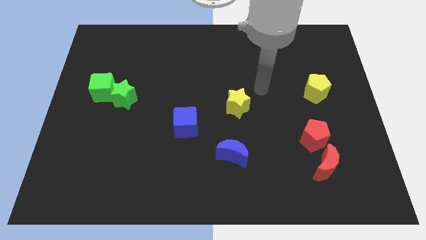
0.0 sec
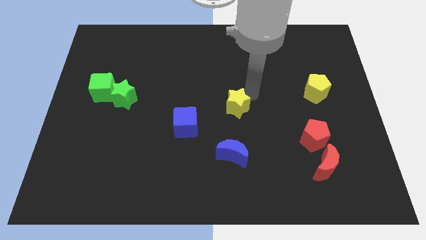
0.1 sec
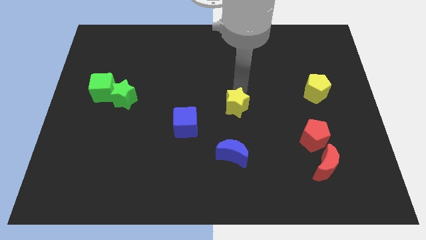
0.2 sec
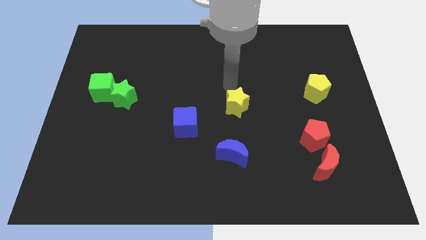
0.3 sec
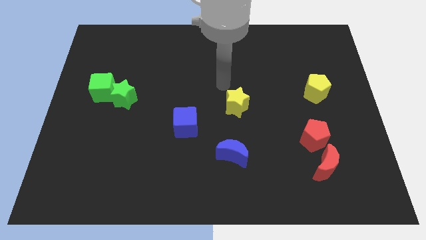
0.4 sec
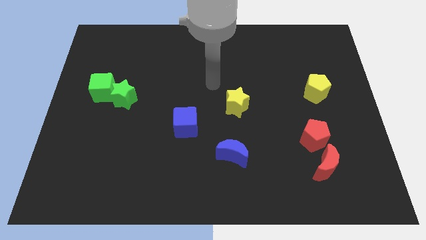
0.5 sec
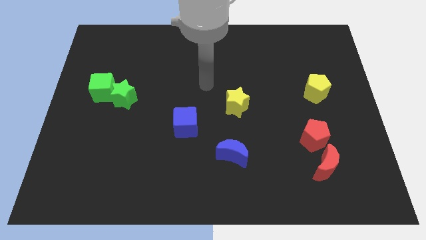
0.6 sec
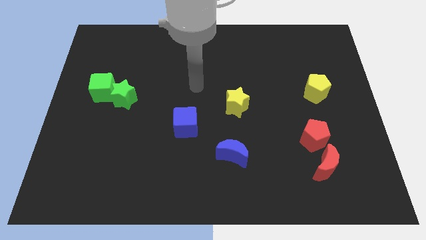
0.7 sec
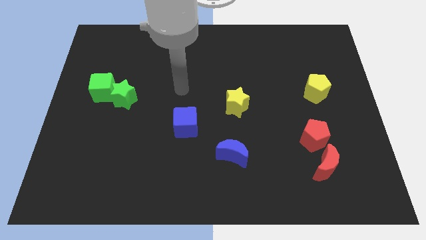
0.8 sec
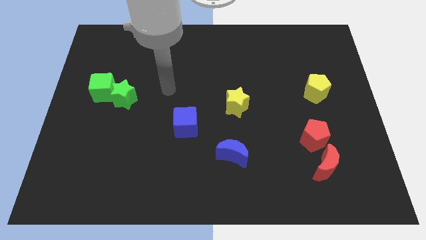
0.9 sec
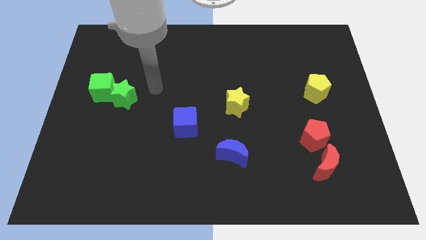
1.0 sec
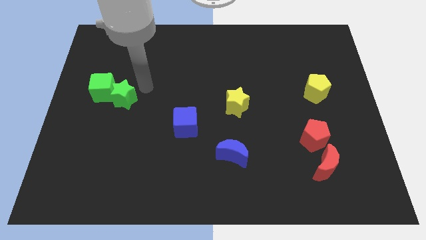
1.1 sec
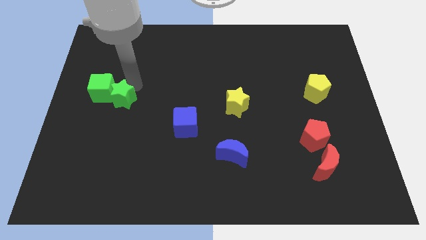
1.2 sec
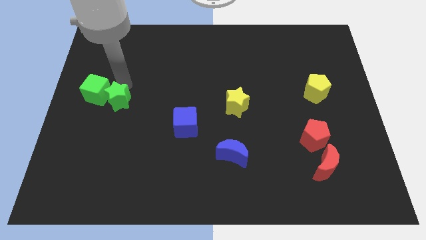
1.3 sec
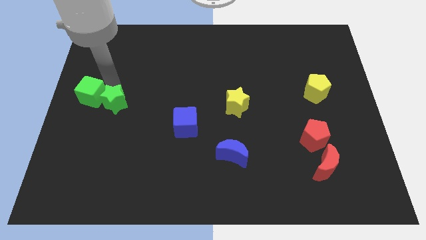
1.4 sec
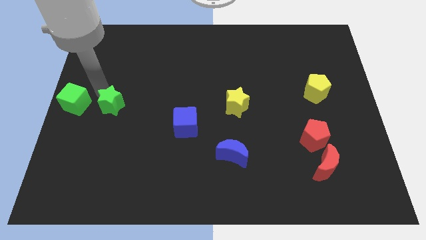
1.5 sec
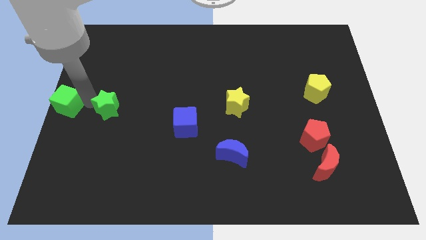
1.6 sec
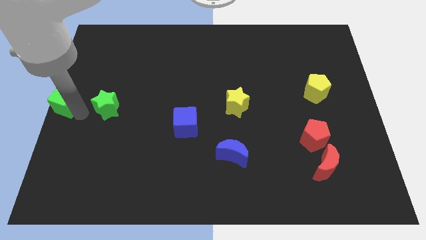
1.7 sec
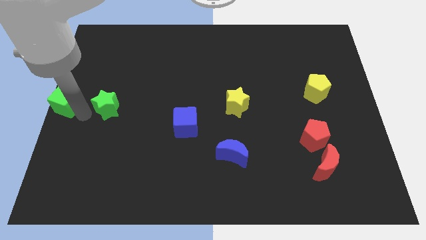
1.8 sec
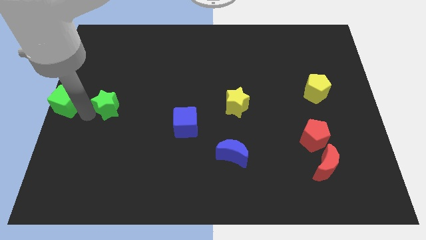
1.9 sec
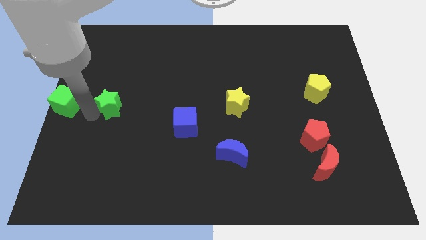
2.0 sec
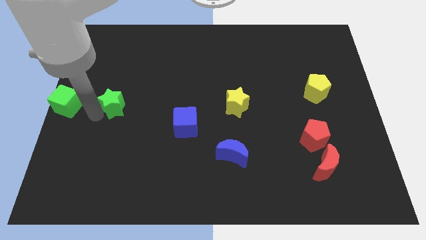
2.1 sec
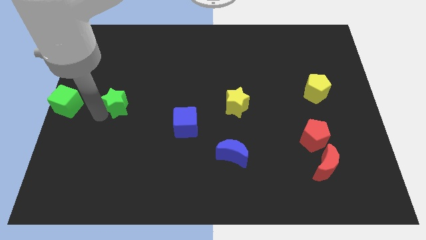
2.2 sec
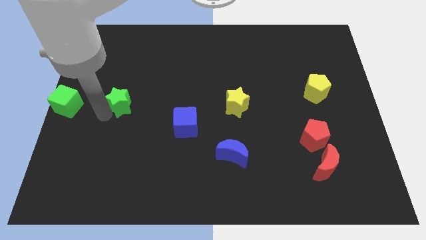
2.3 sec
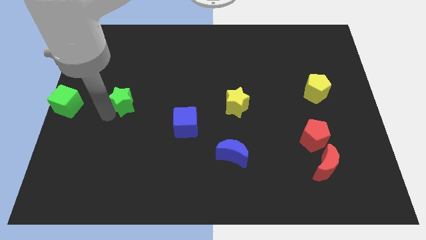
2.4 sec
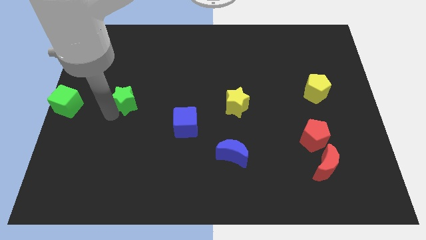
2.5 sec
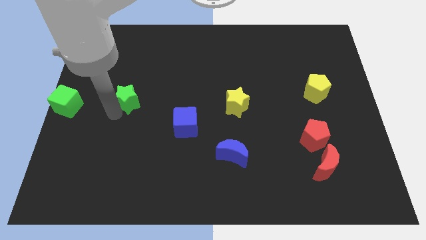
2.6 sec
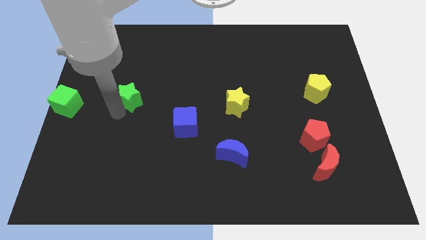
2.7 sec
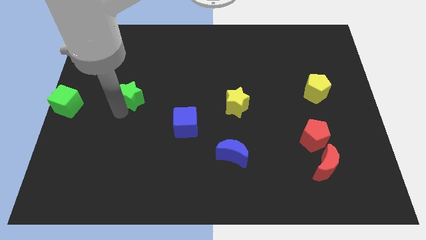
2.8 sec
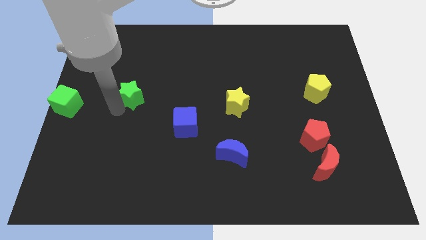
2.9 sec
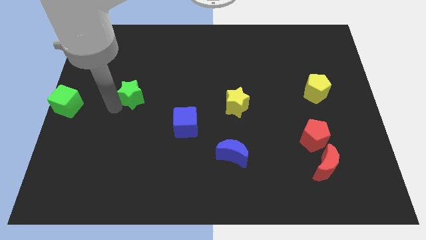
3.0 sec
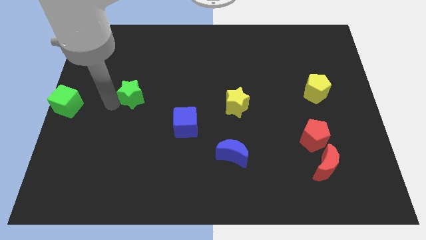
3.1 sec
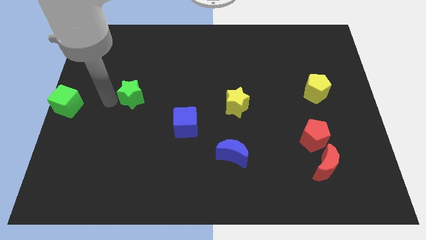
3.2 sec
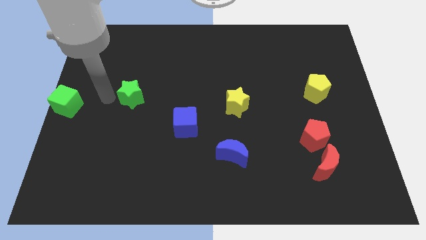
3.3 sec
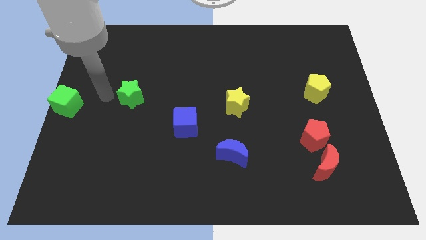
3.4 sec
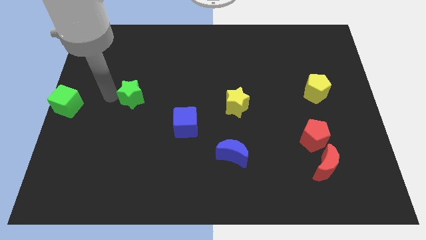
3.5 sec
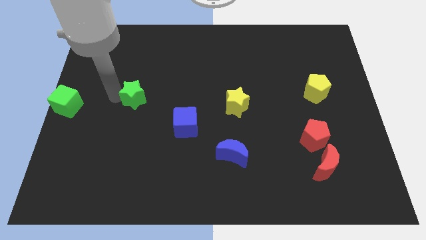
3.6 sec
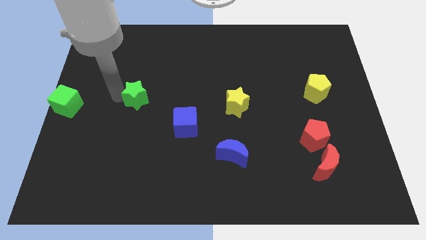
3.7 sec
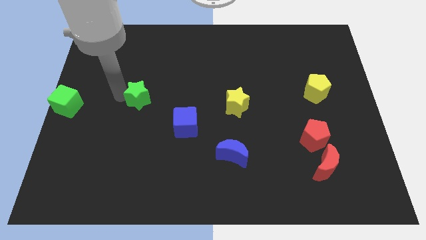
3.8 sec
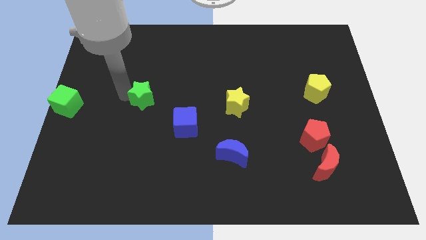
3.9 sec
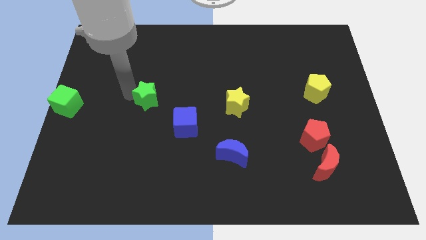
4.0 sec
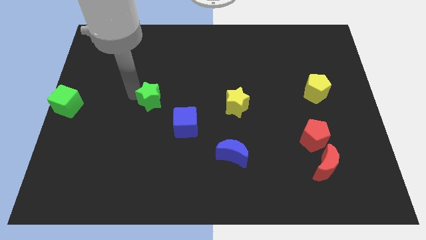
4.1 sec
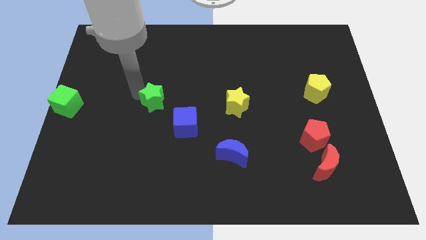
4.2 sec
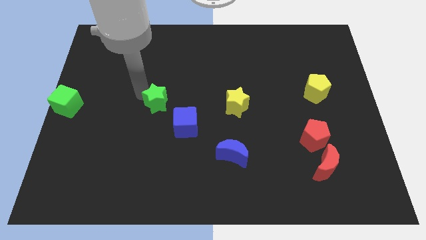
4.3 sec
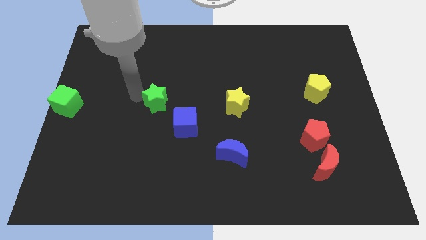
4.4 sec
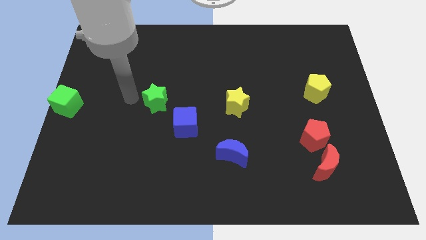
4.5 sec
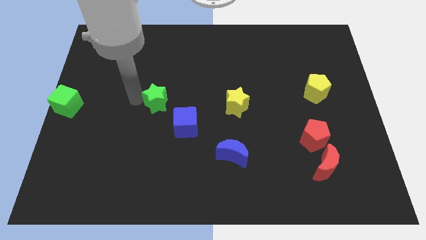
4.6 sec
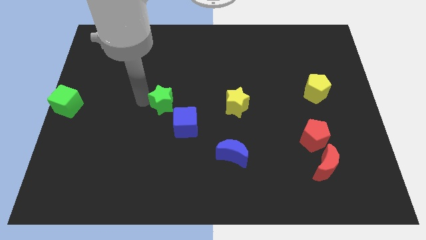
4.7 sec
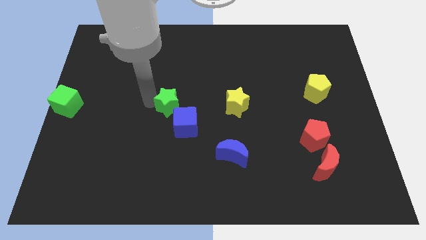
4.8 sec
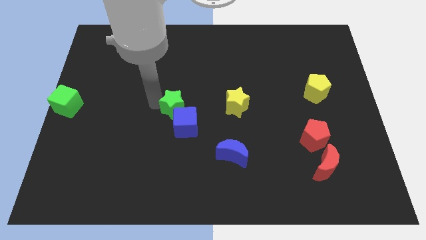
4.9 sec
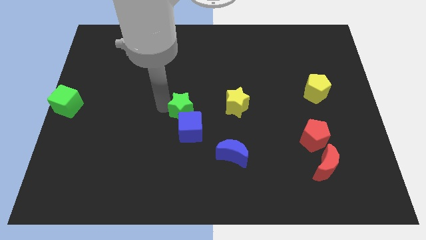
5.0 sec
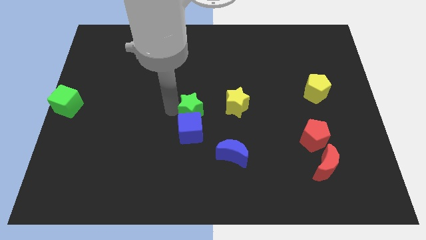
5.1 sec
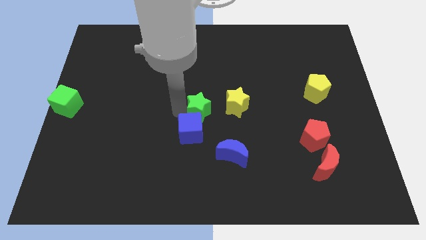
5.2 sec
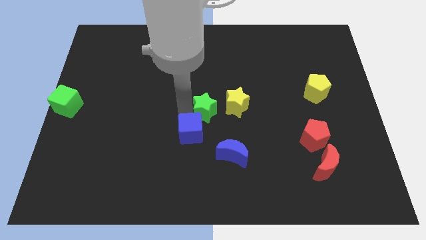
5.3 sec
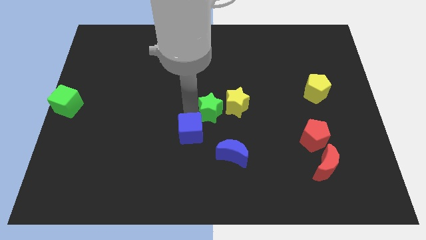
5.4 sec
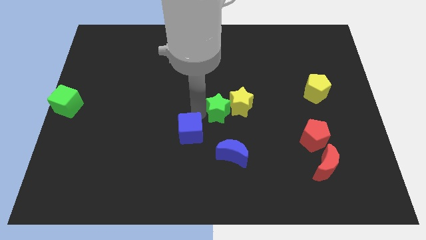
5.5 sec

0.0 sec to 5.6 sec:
push the green star towards the yellow star

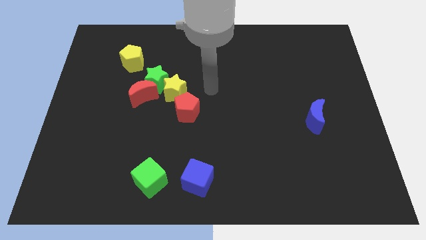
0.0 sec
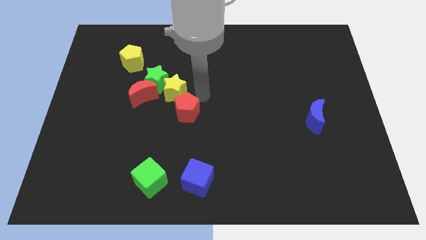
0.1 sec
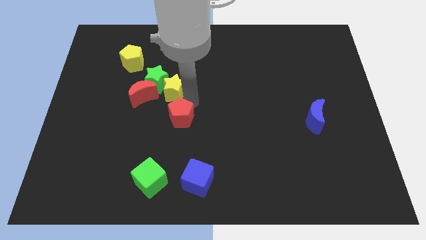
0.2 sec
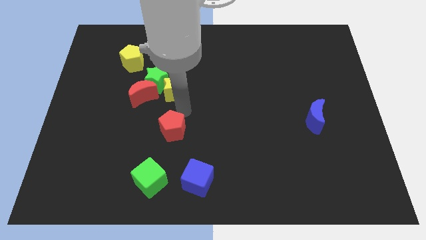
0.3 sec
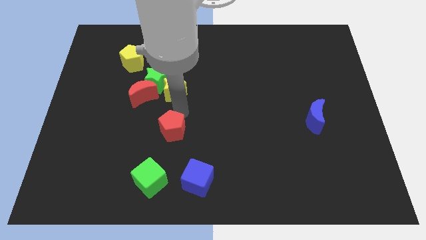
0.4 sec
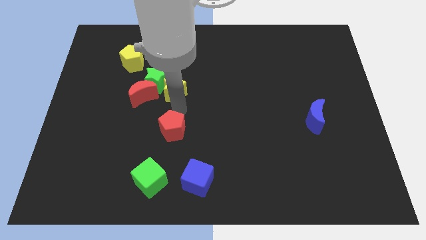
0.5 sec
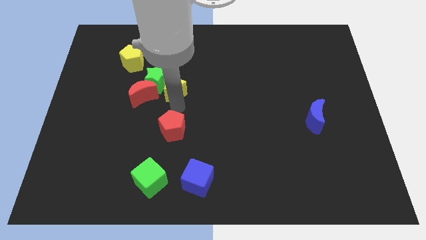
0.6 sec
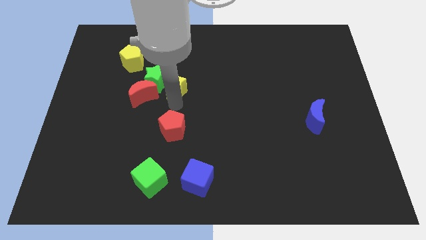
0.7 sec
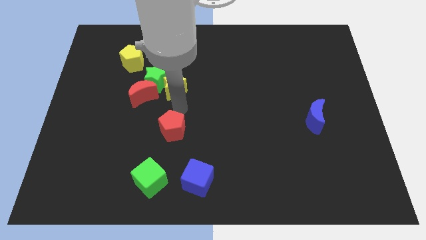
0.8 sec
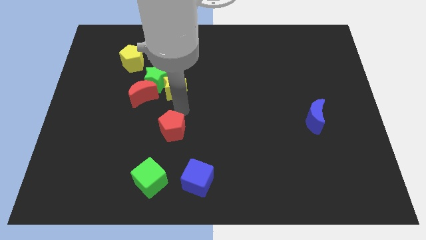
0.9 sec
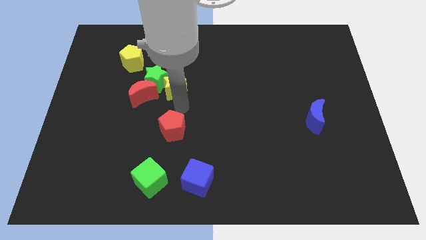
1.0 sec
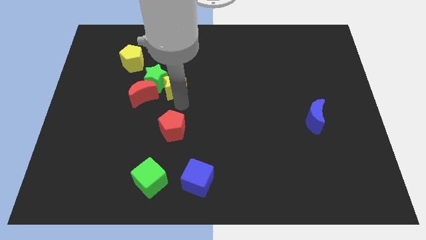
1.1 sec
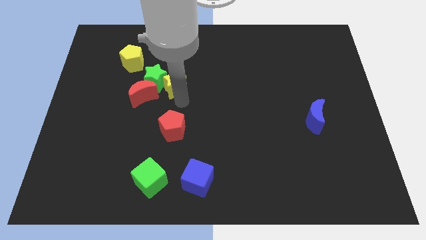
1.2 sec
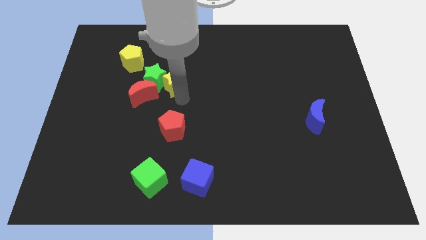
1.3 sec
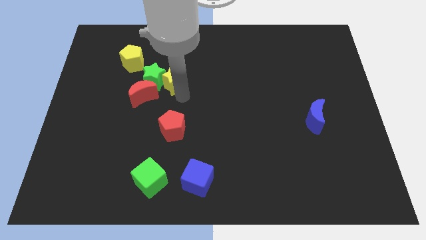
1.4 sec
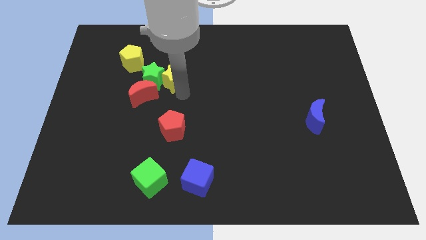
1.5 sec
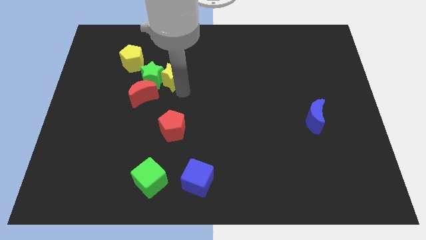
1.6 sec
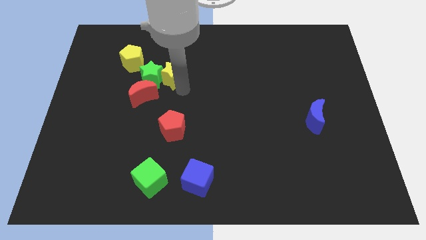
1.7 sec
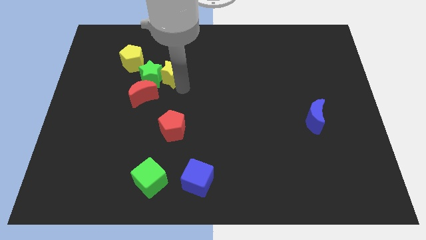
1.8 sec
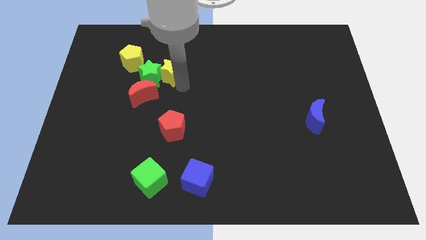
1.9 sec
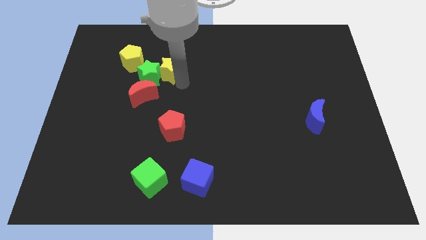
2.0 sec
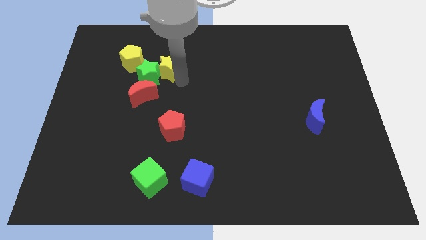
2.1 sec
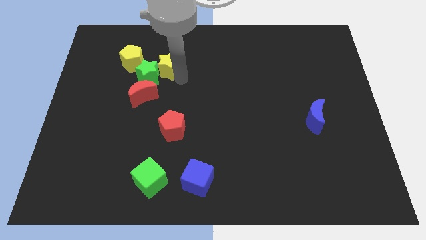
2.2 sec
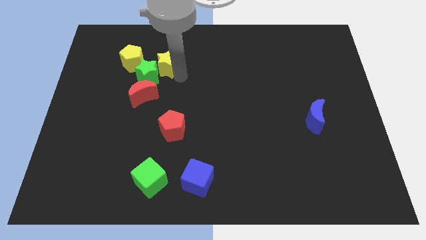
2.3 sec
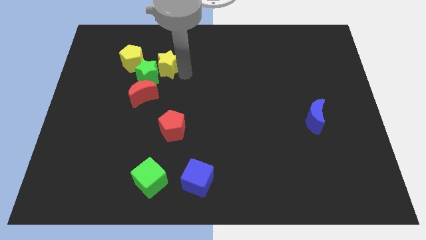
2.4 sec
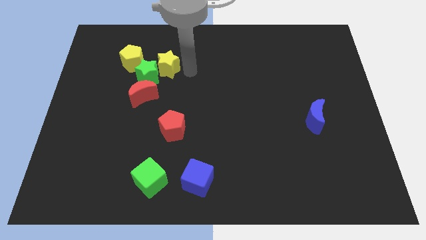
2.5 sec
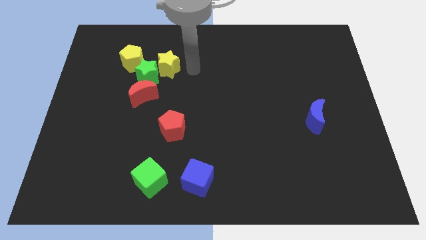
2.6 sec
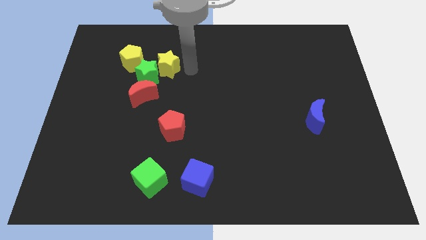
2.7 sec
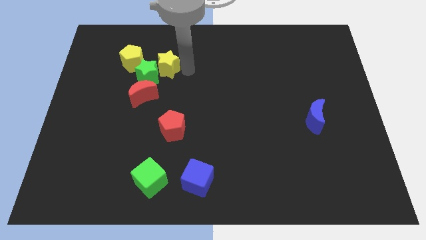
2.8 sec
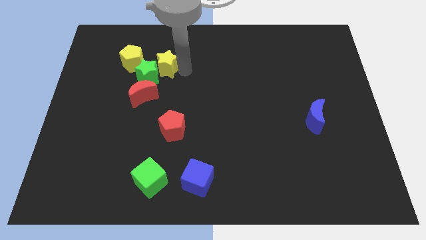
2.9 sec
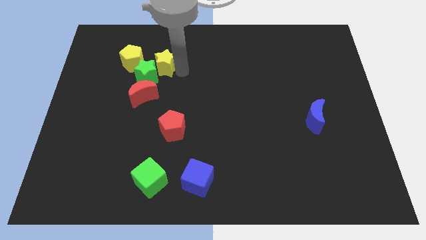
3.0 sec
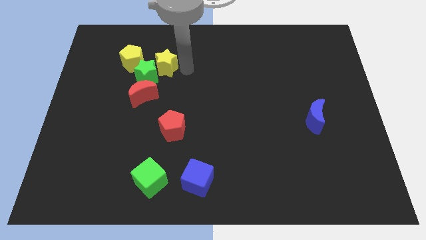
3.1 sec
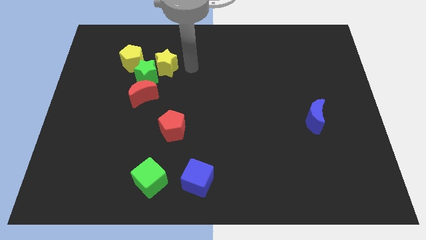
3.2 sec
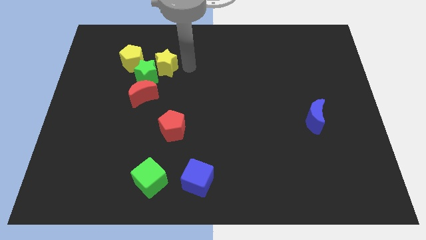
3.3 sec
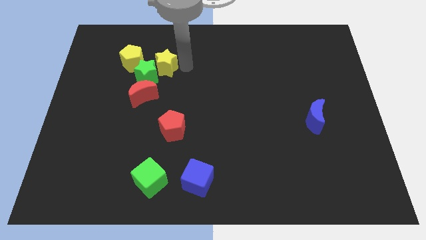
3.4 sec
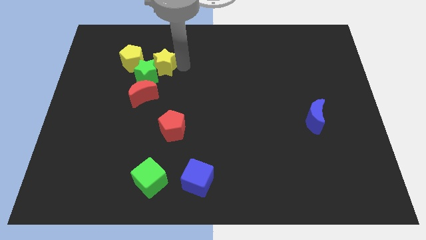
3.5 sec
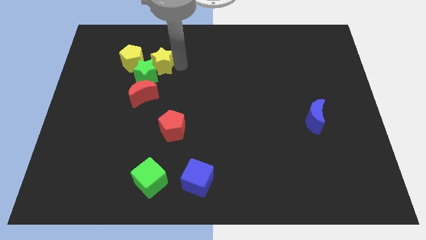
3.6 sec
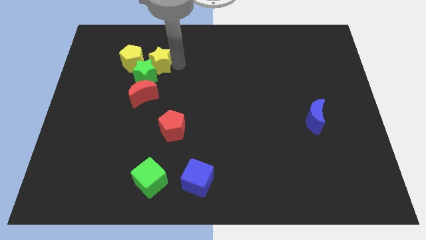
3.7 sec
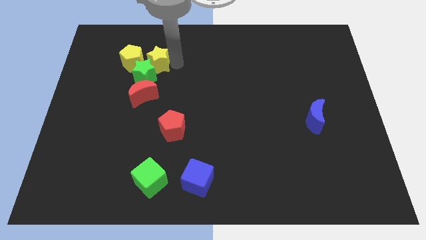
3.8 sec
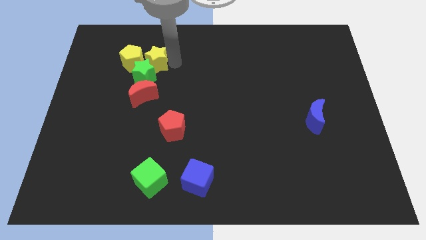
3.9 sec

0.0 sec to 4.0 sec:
push the yellow star towards the yellow pentagon
